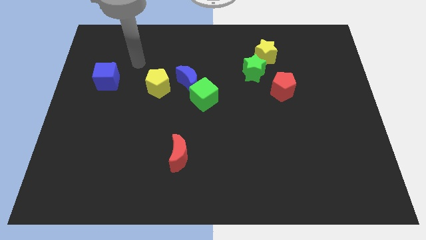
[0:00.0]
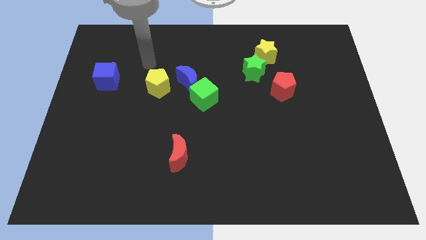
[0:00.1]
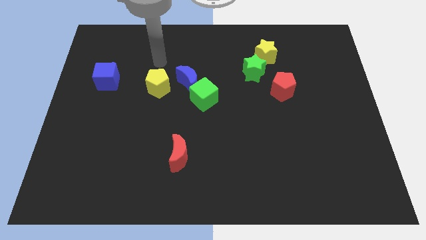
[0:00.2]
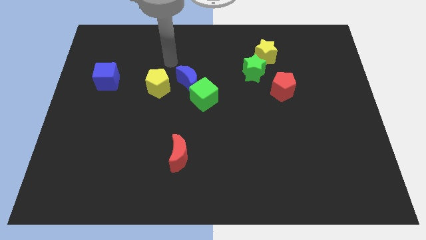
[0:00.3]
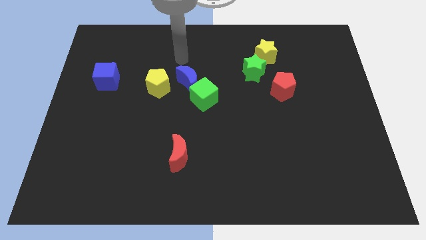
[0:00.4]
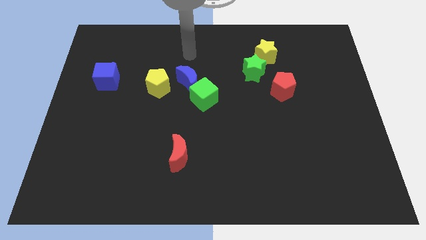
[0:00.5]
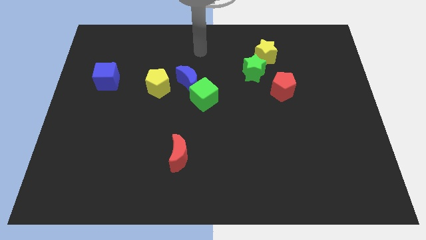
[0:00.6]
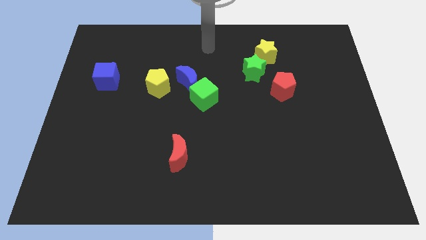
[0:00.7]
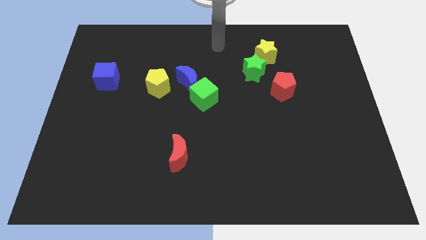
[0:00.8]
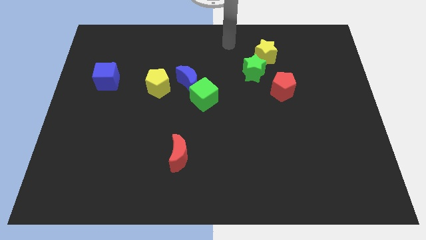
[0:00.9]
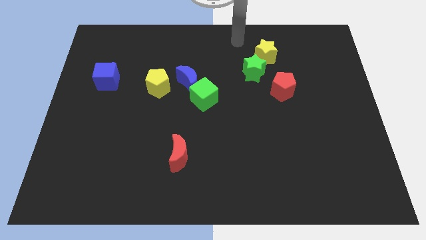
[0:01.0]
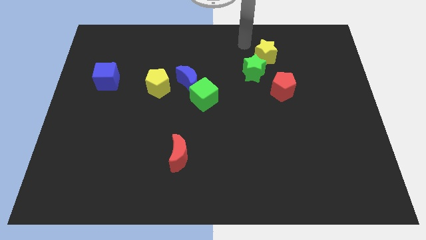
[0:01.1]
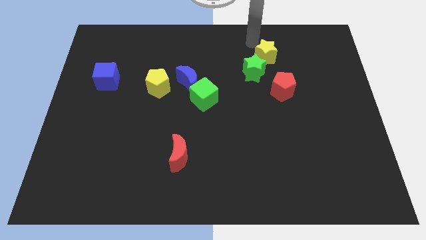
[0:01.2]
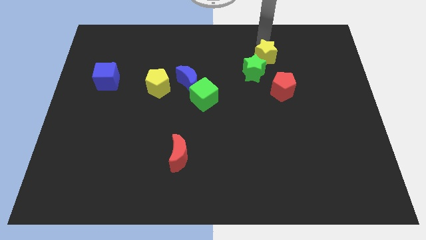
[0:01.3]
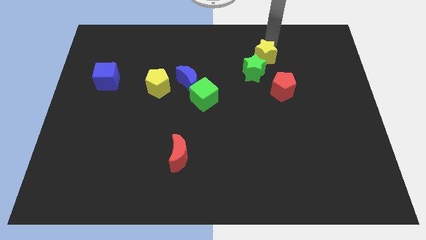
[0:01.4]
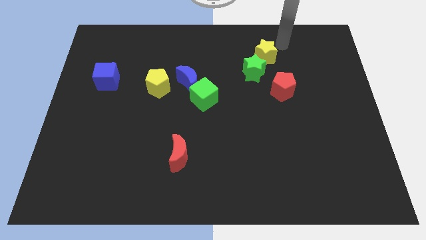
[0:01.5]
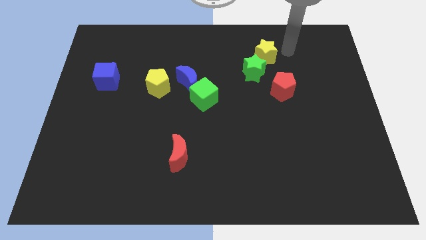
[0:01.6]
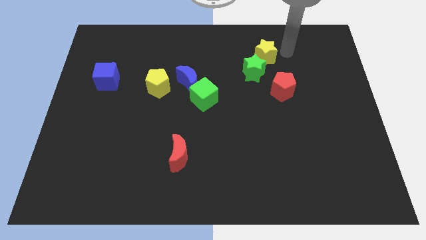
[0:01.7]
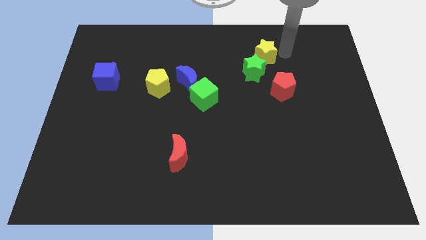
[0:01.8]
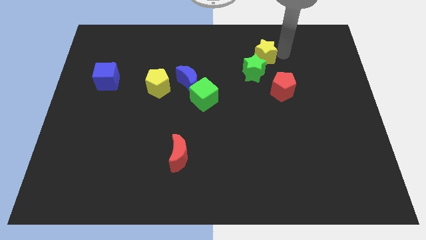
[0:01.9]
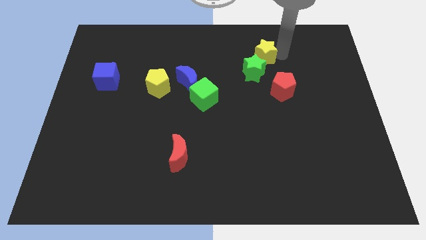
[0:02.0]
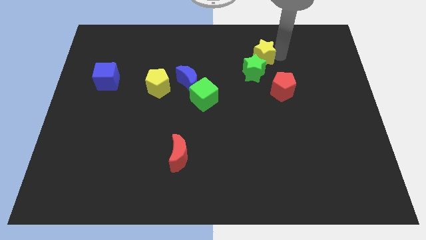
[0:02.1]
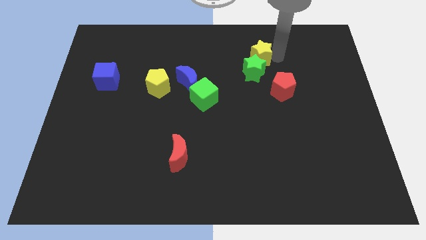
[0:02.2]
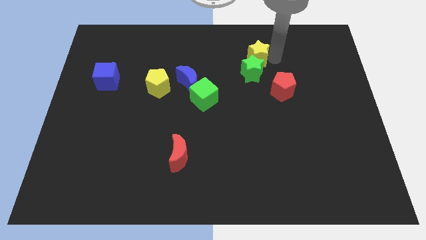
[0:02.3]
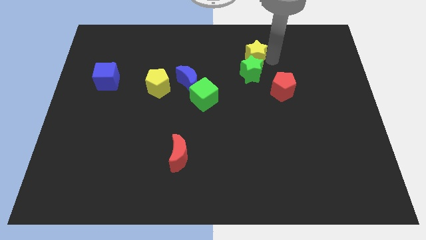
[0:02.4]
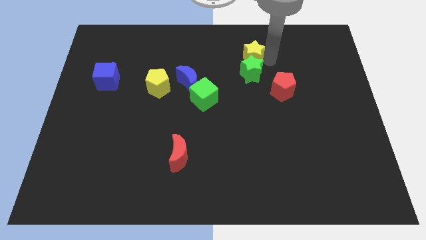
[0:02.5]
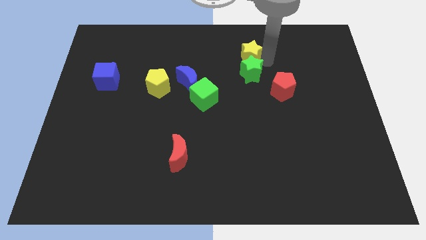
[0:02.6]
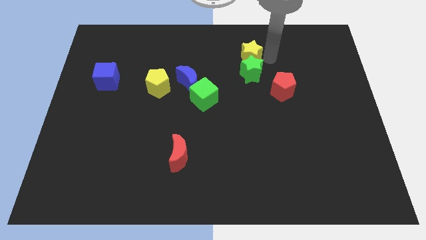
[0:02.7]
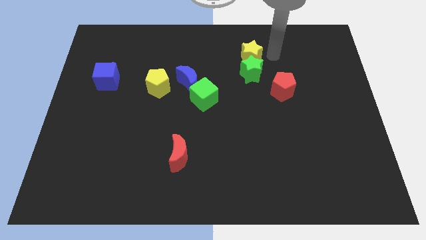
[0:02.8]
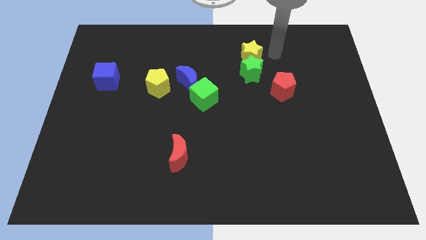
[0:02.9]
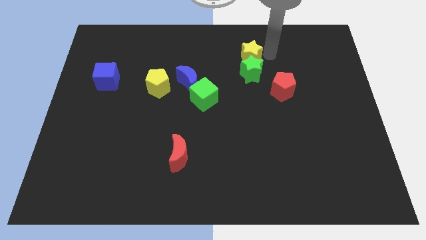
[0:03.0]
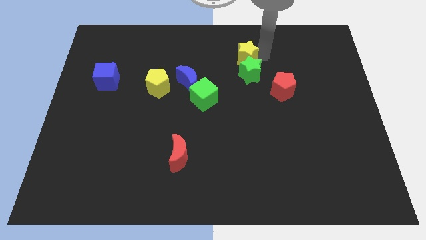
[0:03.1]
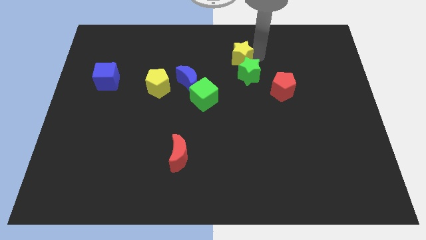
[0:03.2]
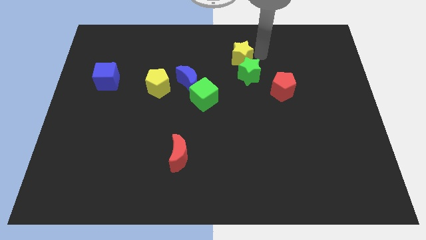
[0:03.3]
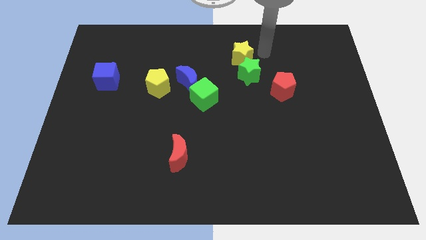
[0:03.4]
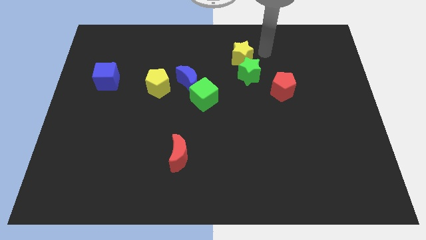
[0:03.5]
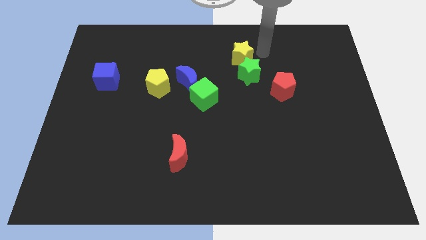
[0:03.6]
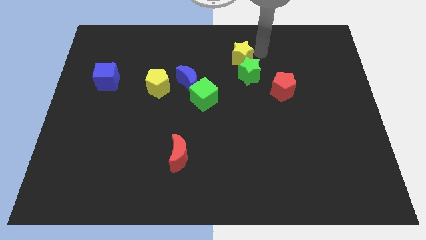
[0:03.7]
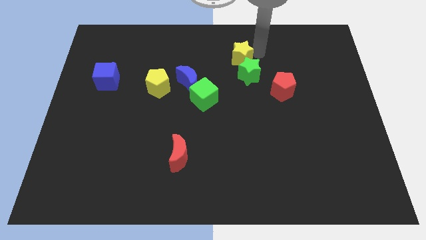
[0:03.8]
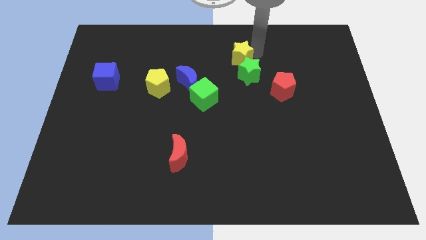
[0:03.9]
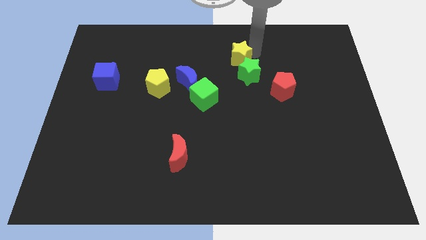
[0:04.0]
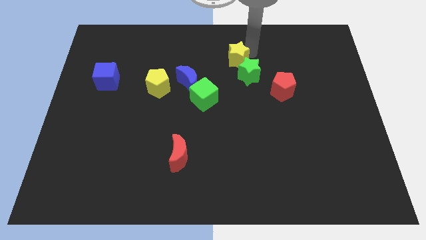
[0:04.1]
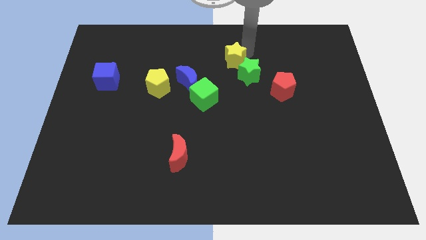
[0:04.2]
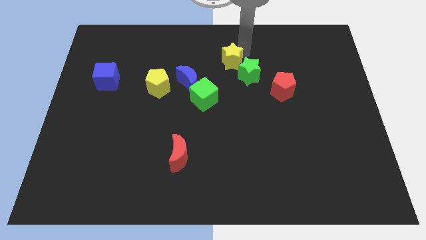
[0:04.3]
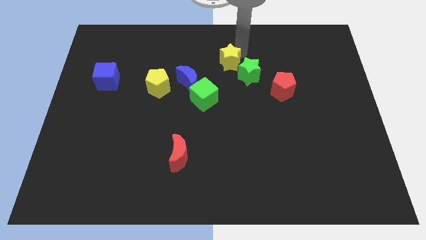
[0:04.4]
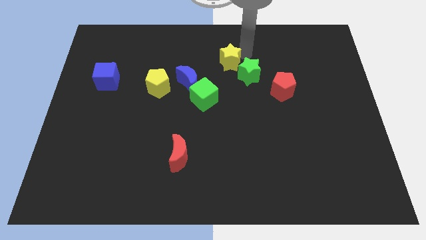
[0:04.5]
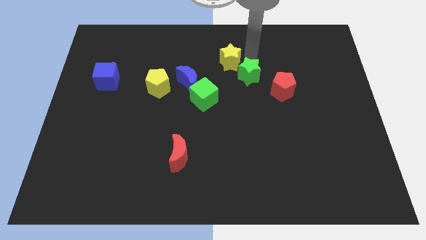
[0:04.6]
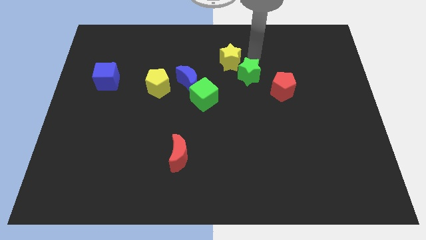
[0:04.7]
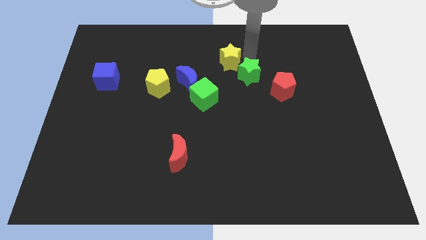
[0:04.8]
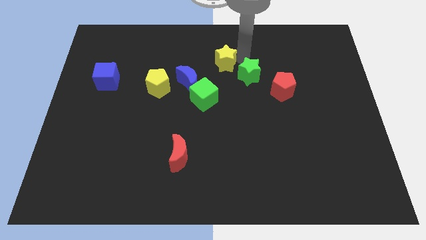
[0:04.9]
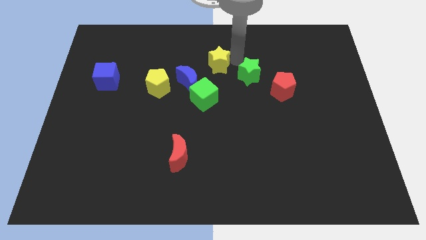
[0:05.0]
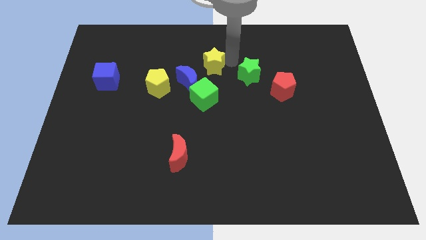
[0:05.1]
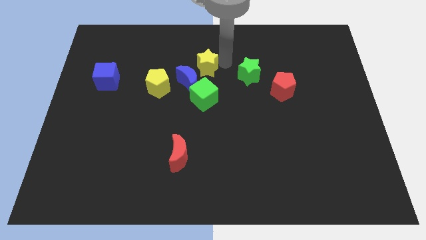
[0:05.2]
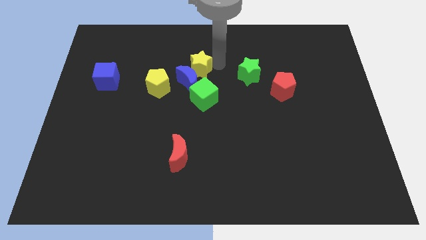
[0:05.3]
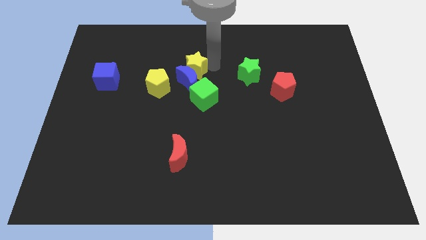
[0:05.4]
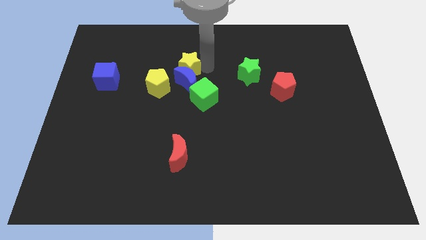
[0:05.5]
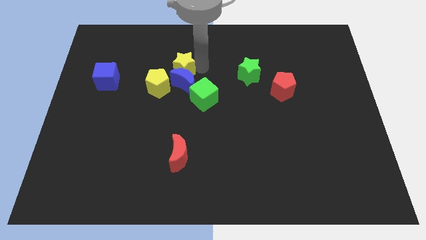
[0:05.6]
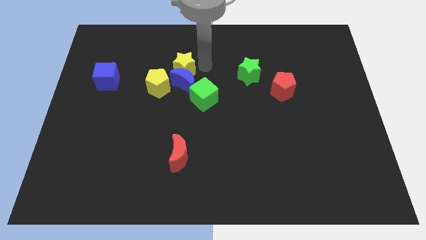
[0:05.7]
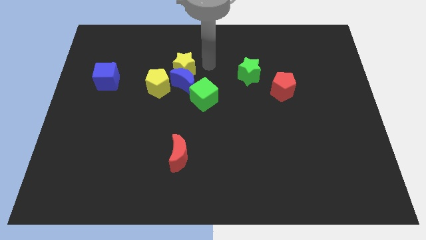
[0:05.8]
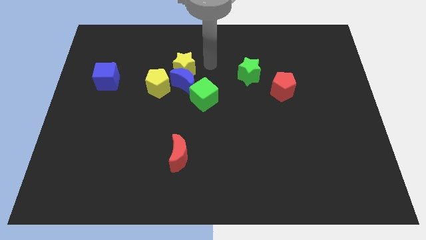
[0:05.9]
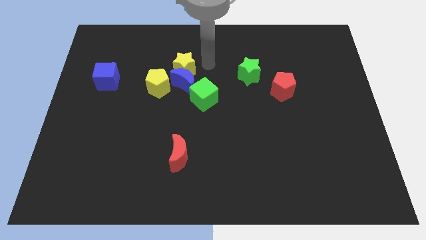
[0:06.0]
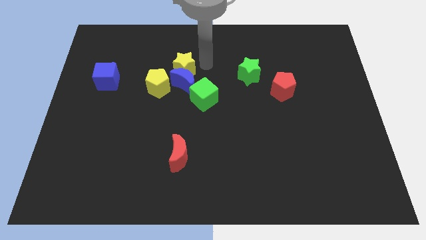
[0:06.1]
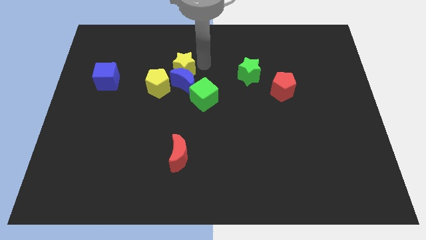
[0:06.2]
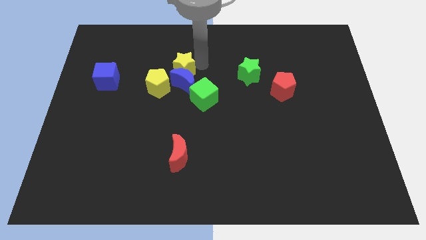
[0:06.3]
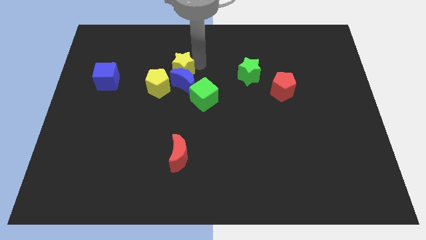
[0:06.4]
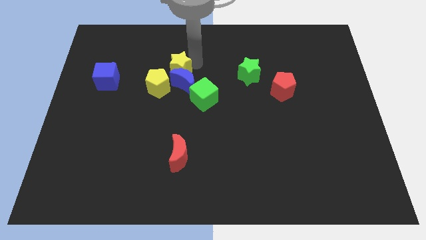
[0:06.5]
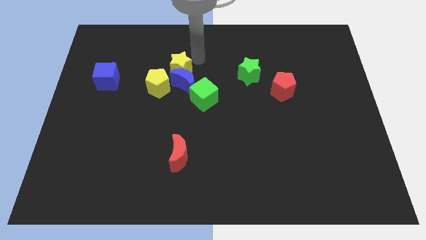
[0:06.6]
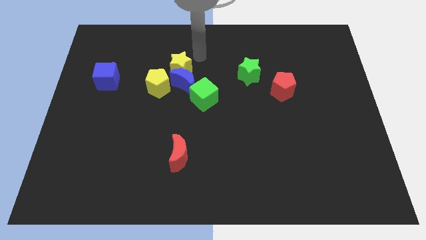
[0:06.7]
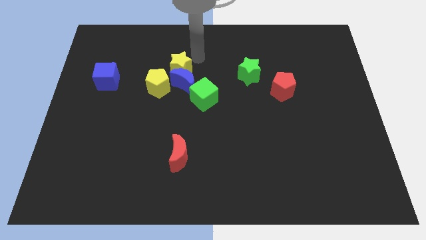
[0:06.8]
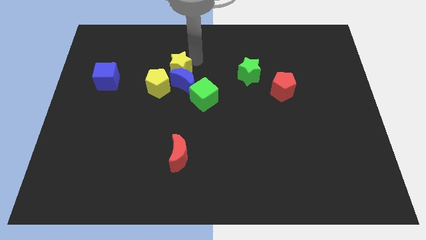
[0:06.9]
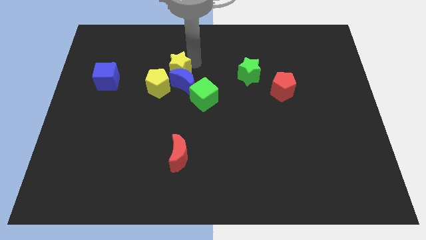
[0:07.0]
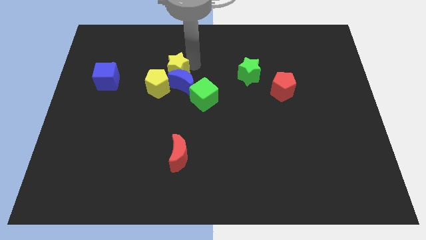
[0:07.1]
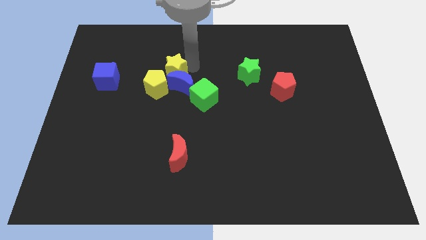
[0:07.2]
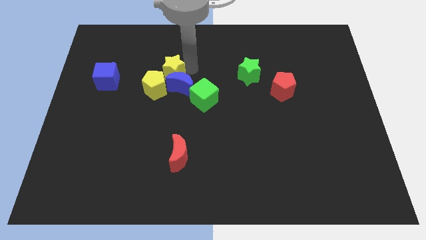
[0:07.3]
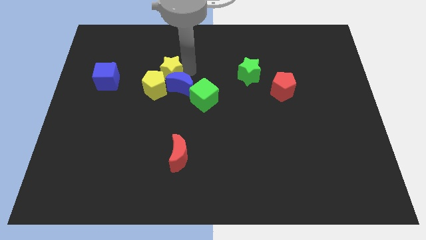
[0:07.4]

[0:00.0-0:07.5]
move the yellow star towards the yellow pentagon

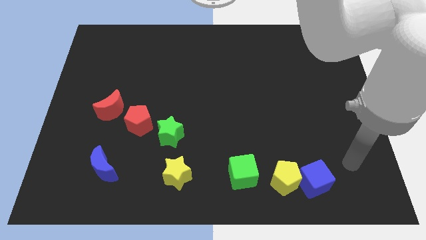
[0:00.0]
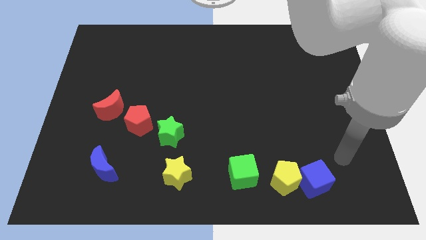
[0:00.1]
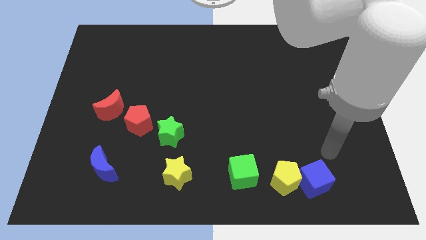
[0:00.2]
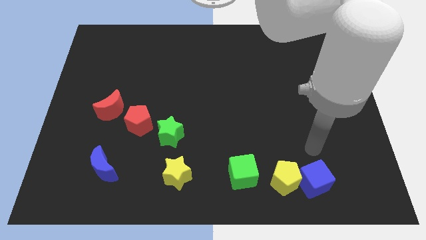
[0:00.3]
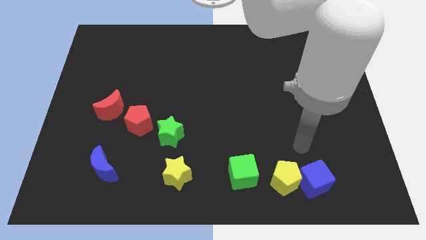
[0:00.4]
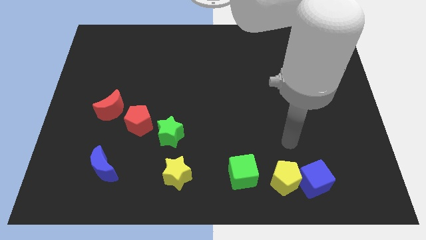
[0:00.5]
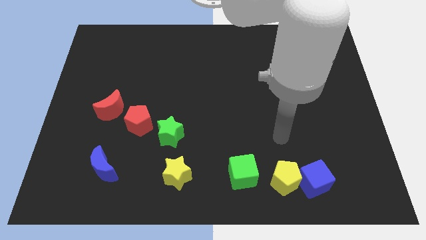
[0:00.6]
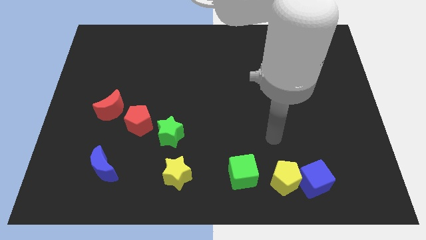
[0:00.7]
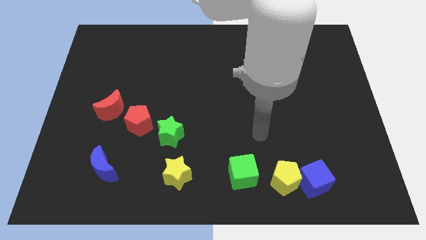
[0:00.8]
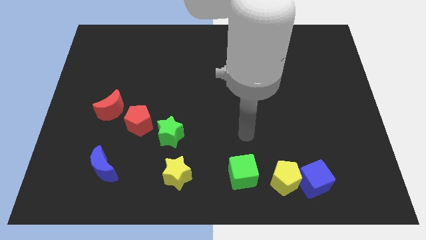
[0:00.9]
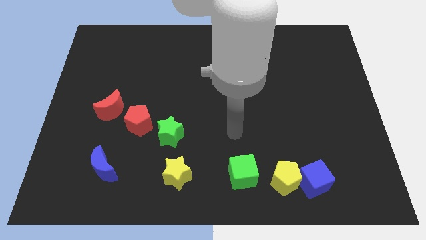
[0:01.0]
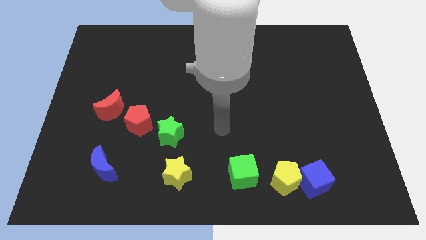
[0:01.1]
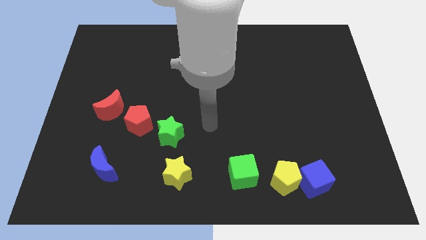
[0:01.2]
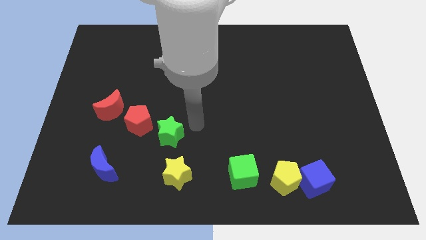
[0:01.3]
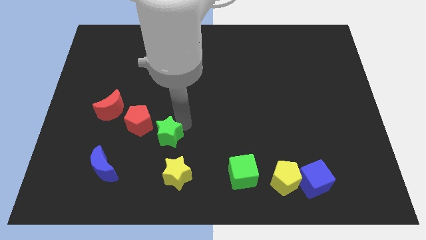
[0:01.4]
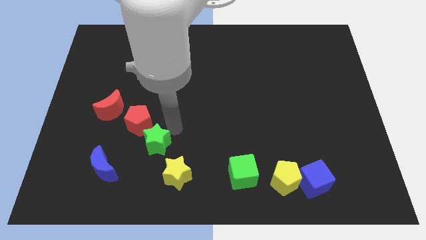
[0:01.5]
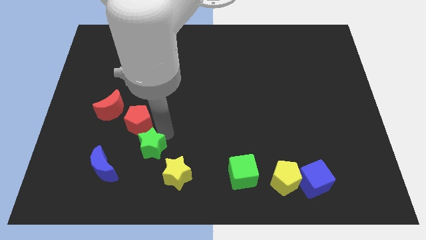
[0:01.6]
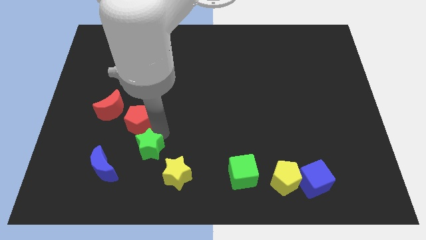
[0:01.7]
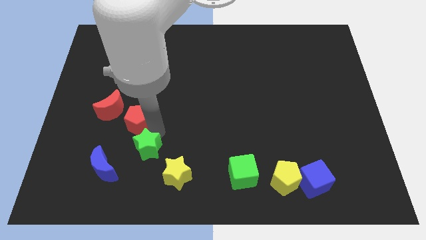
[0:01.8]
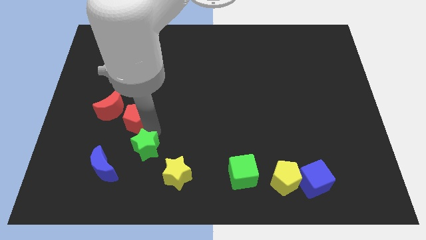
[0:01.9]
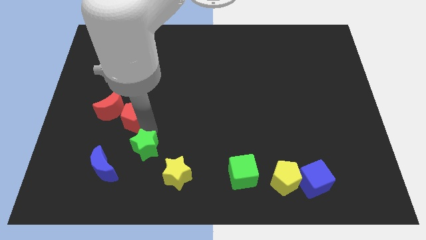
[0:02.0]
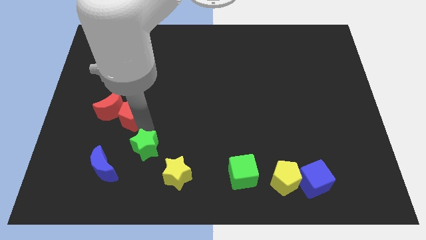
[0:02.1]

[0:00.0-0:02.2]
push the red pentagon close to the red moon
